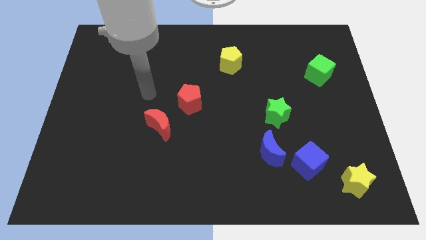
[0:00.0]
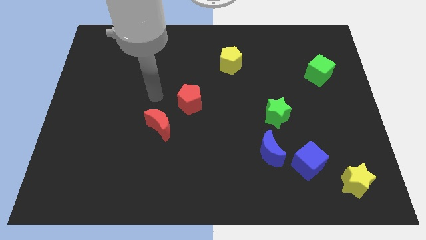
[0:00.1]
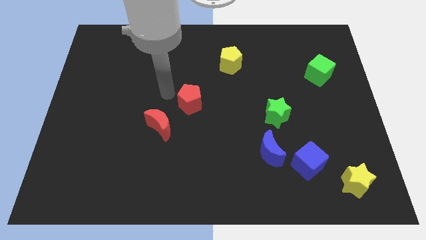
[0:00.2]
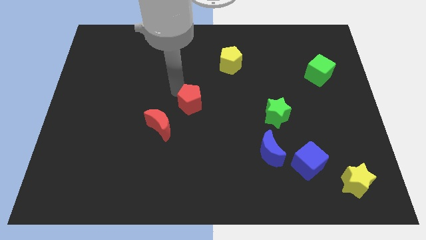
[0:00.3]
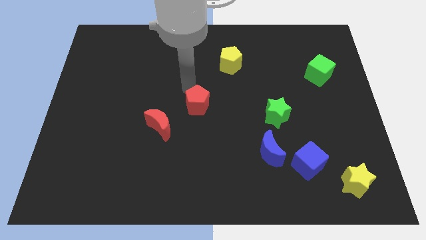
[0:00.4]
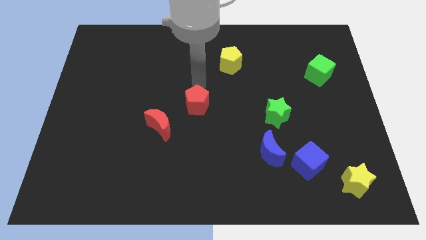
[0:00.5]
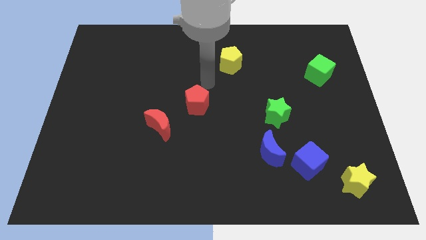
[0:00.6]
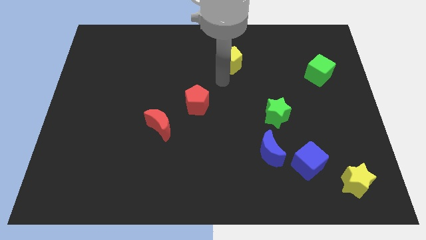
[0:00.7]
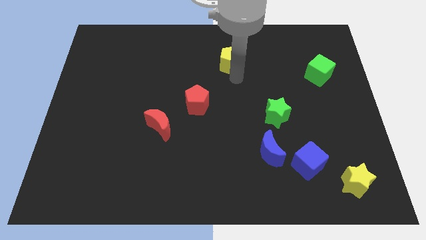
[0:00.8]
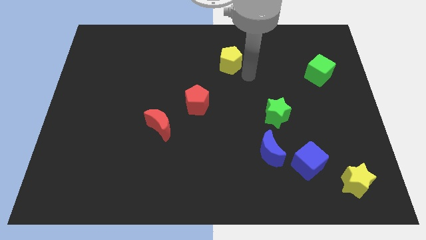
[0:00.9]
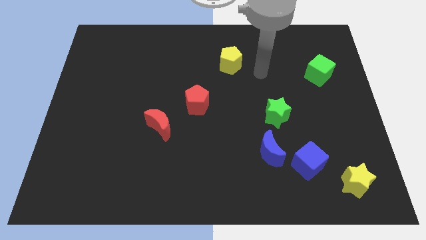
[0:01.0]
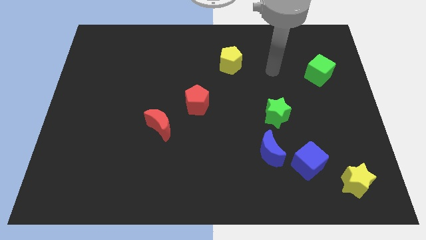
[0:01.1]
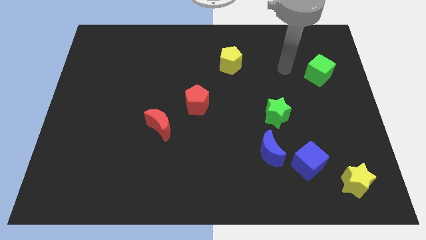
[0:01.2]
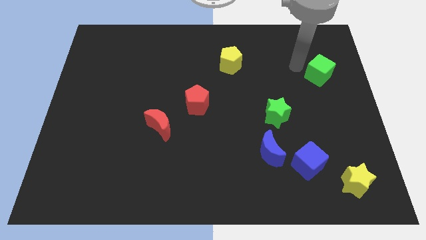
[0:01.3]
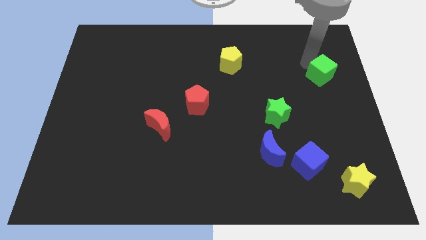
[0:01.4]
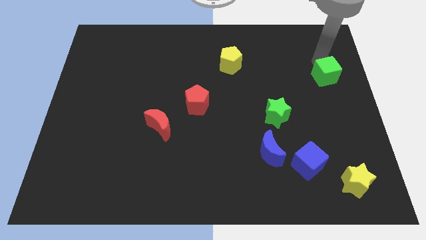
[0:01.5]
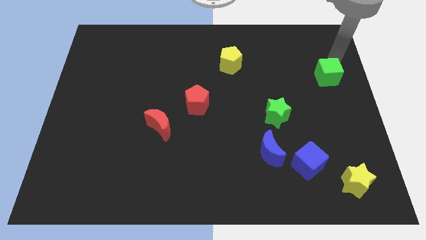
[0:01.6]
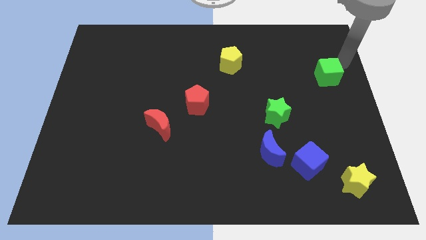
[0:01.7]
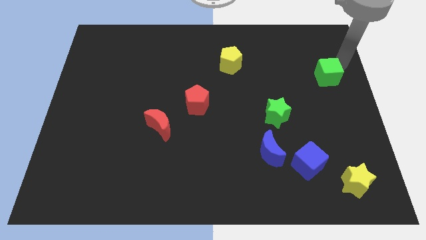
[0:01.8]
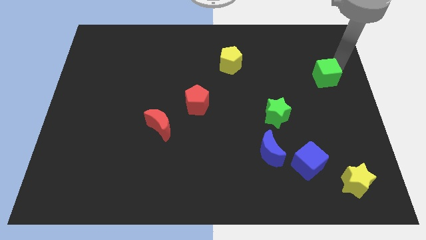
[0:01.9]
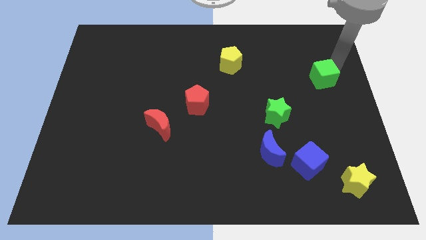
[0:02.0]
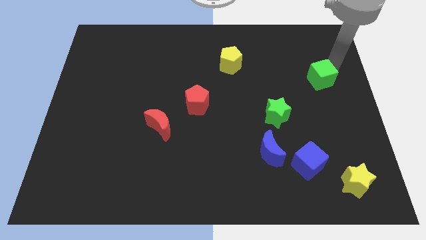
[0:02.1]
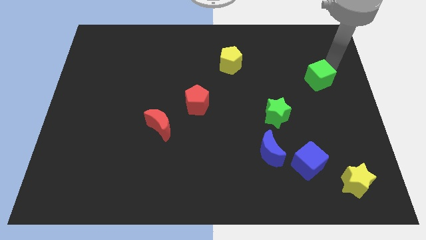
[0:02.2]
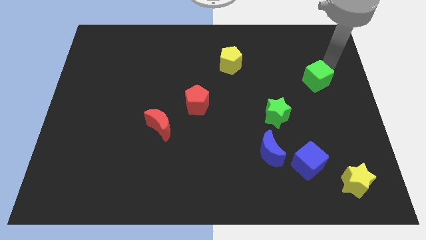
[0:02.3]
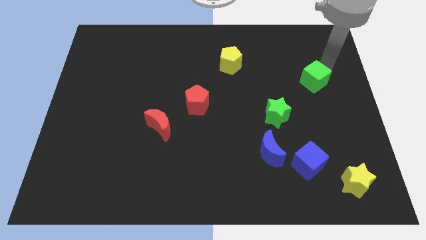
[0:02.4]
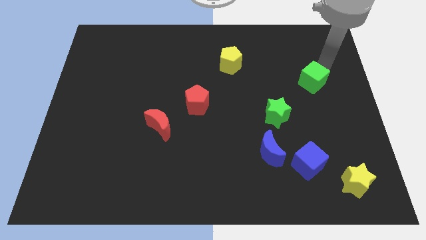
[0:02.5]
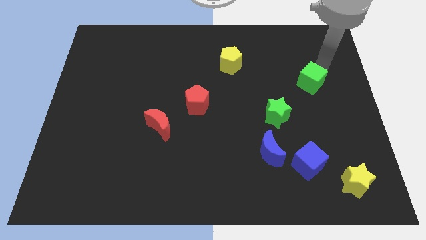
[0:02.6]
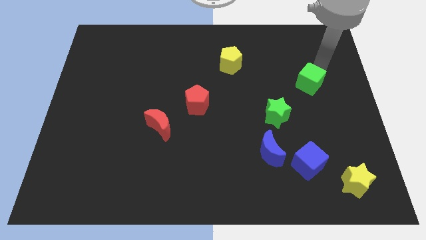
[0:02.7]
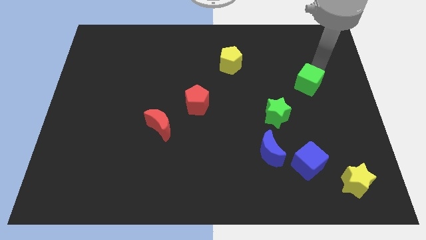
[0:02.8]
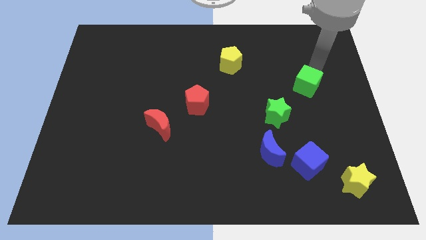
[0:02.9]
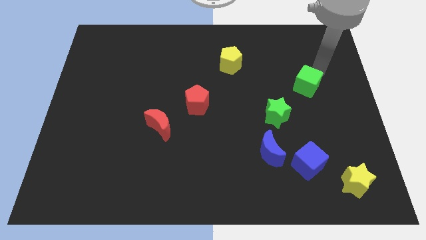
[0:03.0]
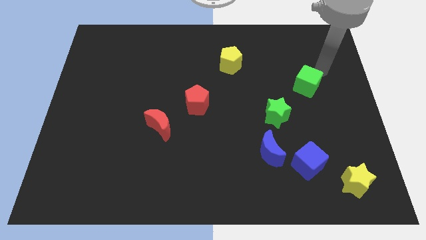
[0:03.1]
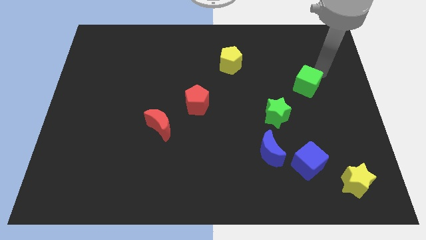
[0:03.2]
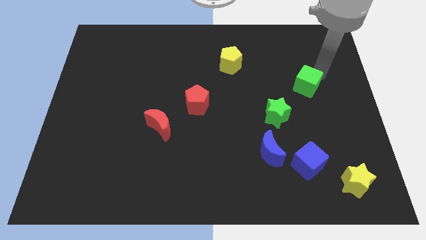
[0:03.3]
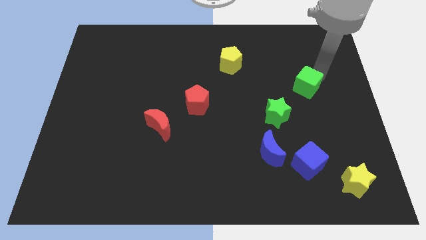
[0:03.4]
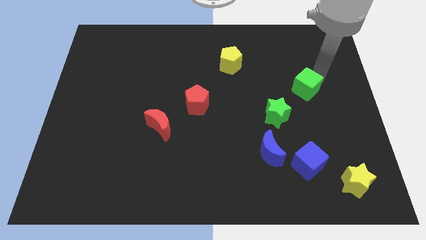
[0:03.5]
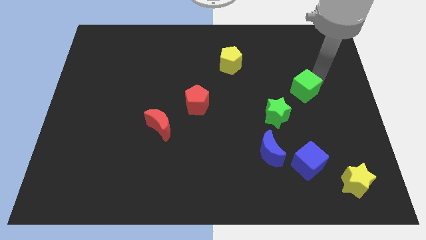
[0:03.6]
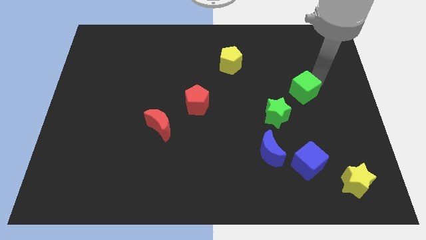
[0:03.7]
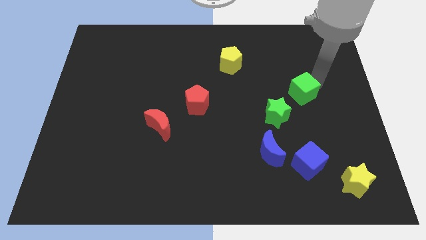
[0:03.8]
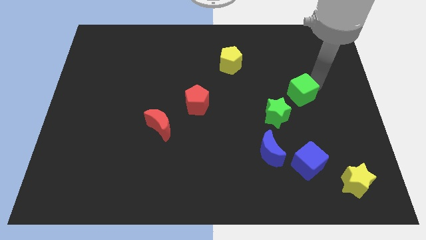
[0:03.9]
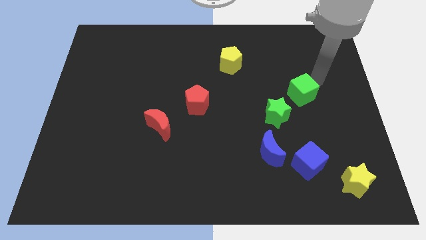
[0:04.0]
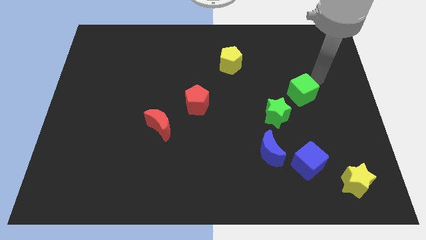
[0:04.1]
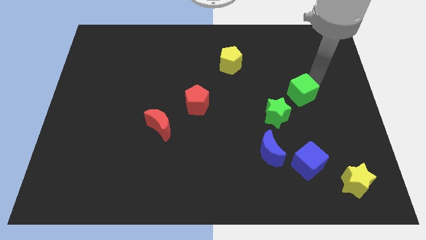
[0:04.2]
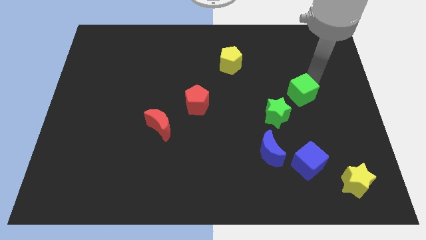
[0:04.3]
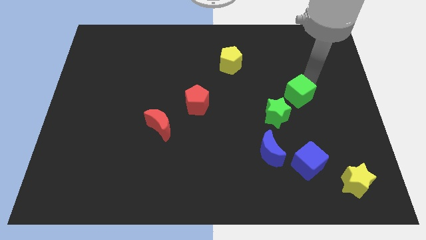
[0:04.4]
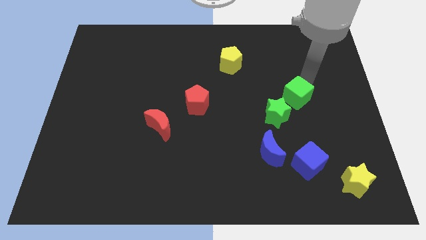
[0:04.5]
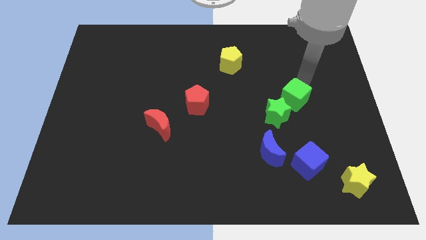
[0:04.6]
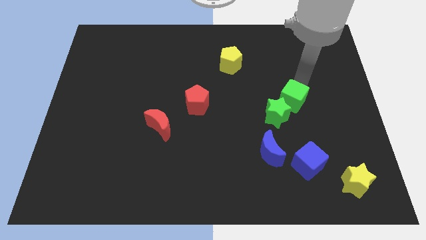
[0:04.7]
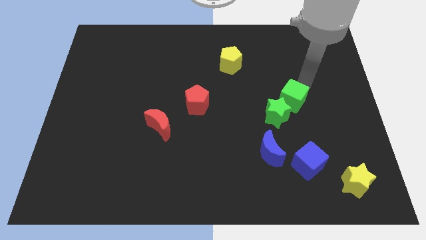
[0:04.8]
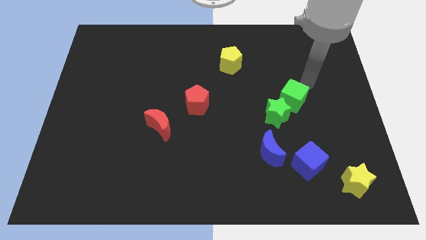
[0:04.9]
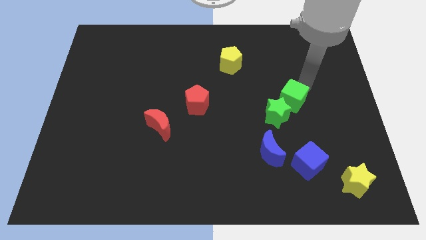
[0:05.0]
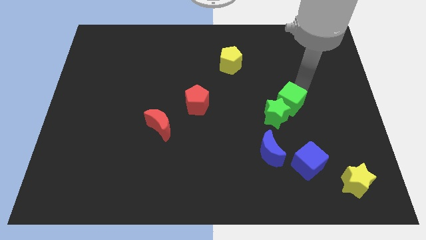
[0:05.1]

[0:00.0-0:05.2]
slide the green cube next to the green star

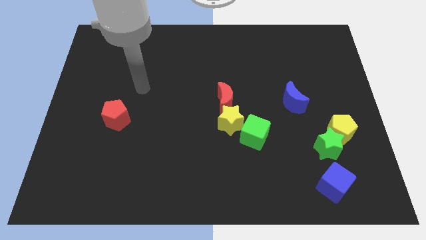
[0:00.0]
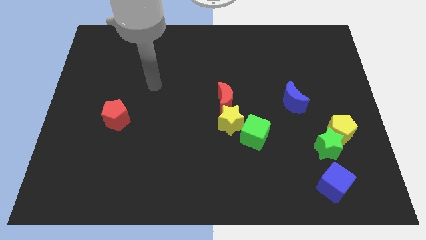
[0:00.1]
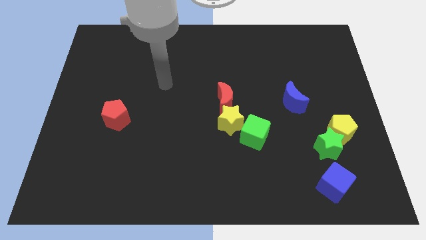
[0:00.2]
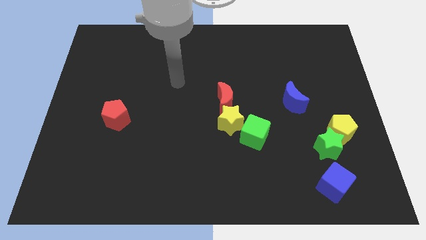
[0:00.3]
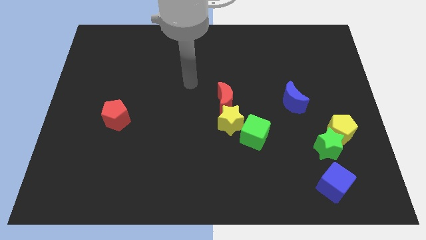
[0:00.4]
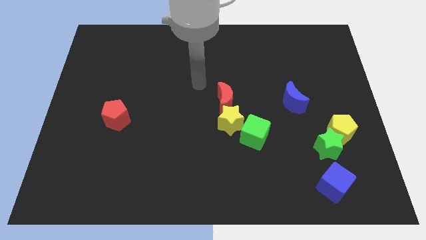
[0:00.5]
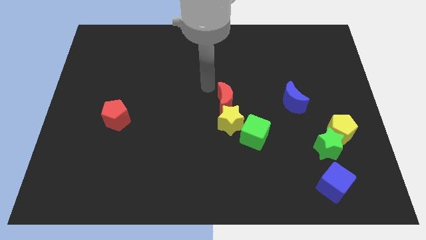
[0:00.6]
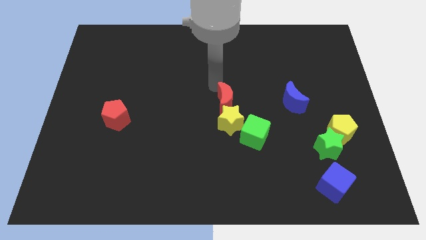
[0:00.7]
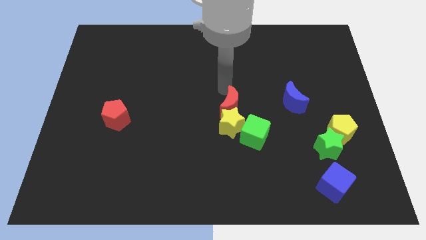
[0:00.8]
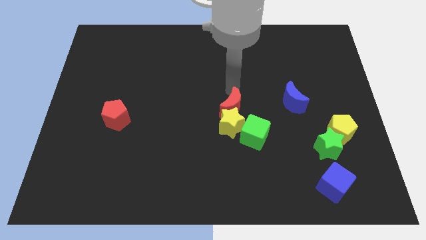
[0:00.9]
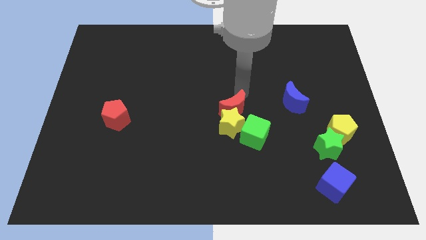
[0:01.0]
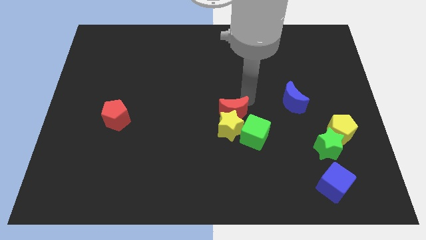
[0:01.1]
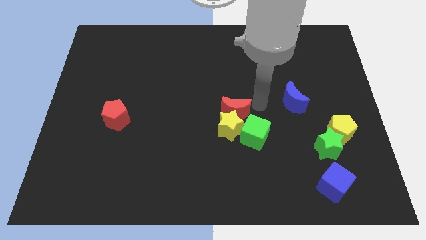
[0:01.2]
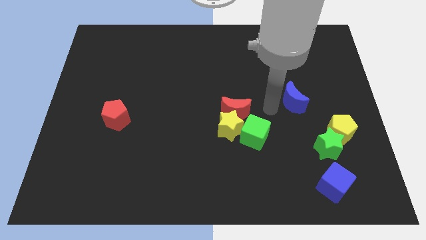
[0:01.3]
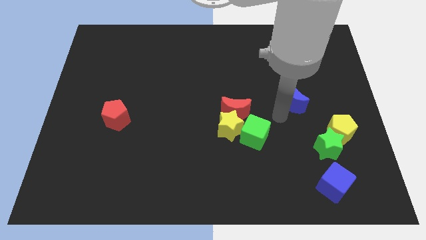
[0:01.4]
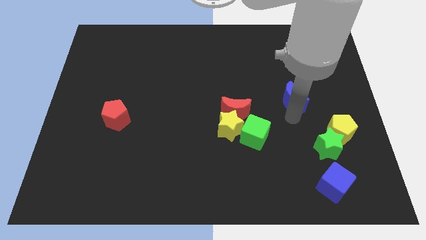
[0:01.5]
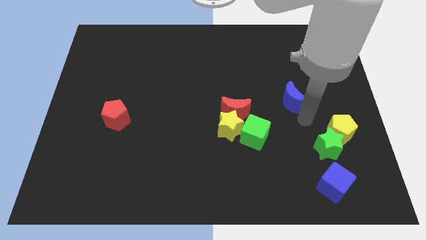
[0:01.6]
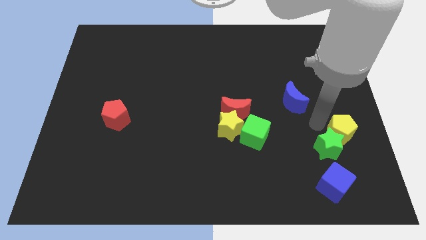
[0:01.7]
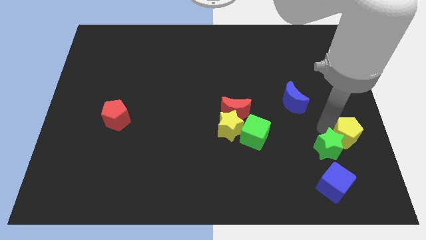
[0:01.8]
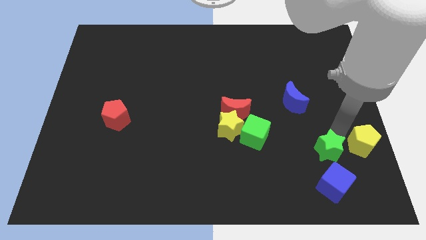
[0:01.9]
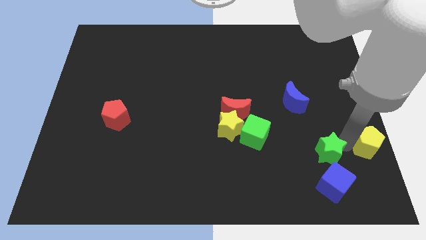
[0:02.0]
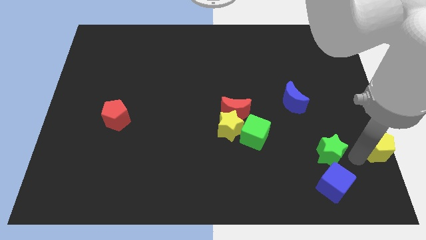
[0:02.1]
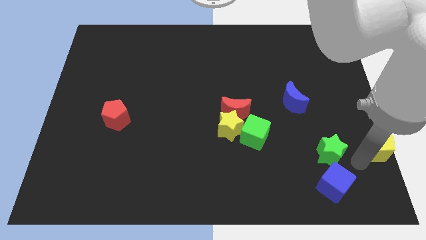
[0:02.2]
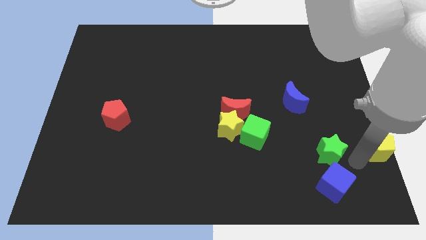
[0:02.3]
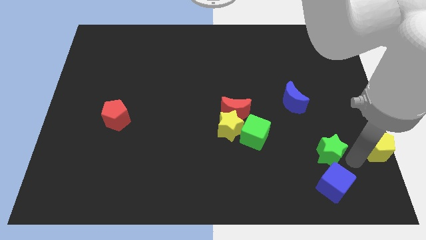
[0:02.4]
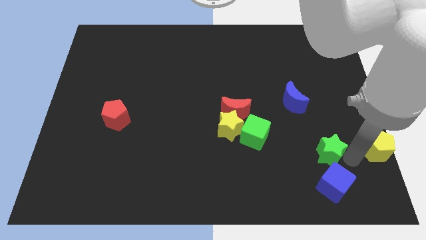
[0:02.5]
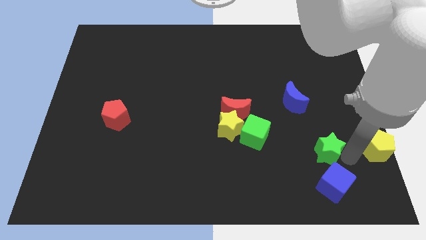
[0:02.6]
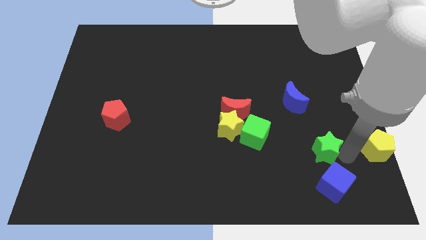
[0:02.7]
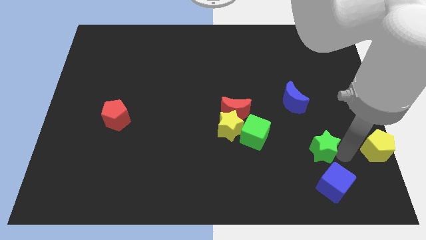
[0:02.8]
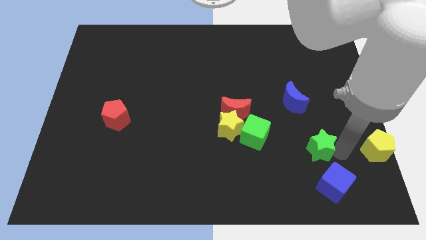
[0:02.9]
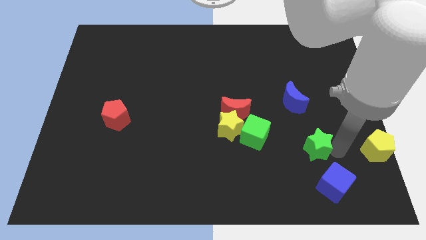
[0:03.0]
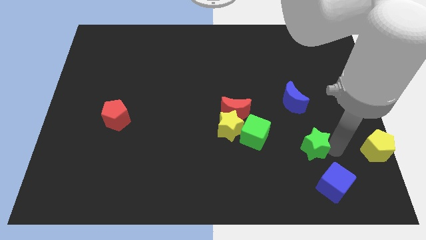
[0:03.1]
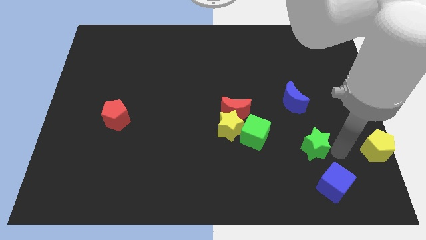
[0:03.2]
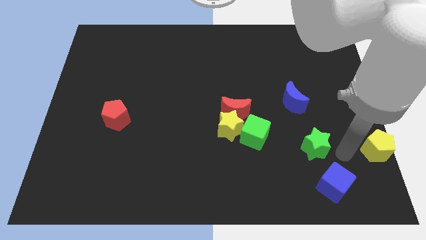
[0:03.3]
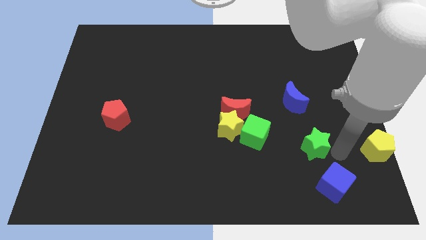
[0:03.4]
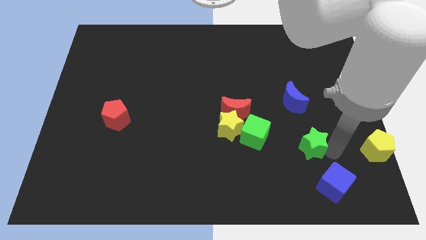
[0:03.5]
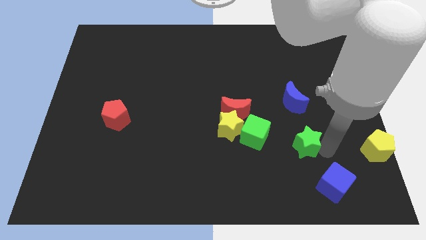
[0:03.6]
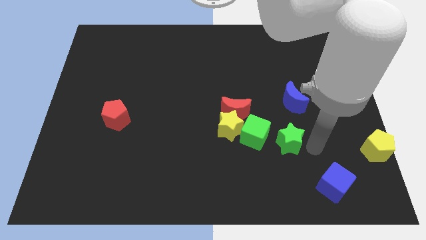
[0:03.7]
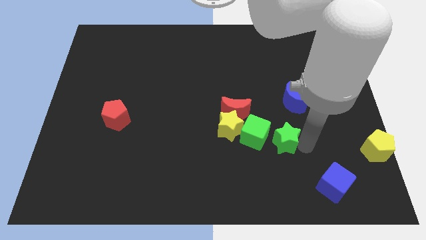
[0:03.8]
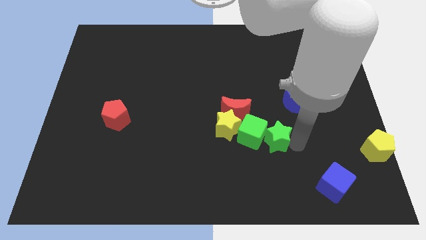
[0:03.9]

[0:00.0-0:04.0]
move the green star towards the green cube
